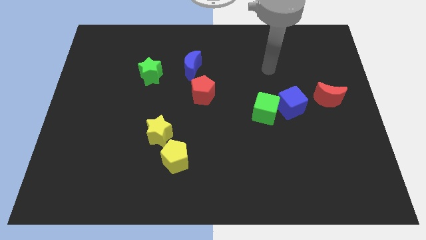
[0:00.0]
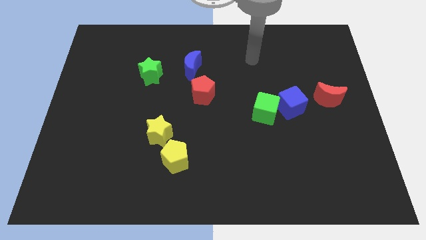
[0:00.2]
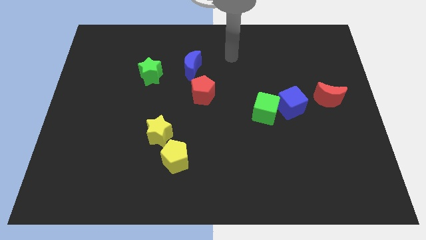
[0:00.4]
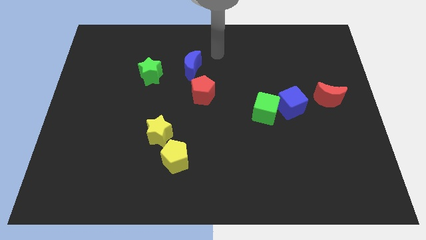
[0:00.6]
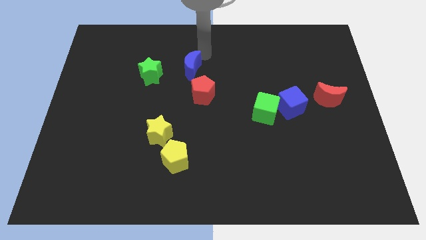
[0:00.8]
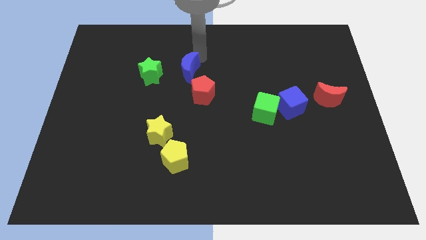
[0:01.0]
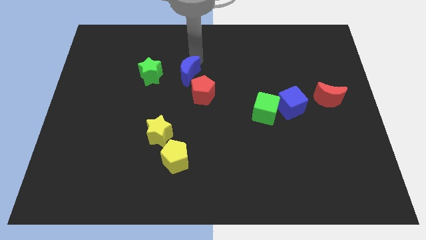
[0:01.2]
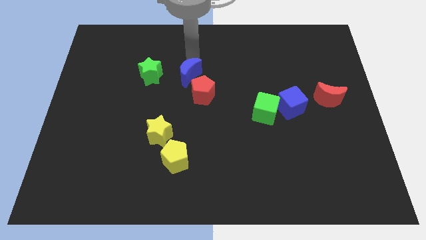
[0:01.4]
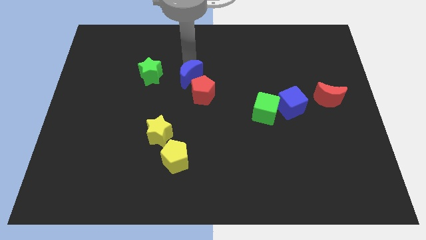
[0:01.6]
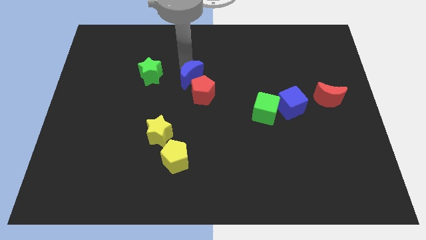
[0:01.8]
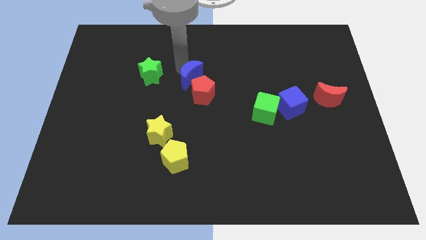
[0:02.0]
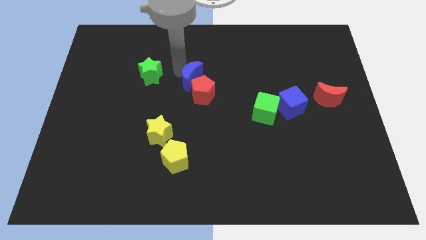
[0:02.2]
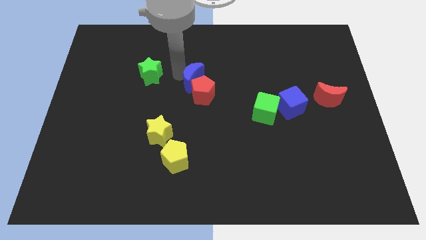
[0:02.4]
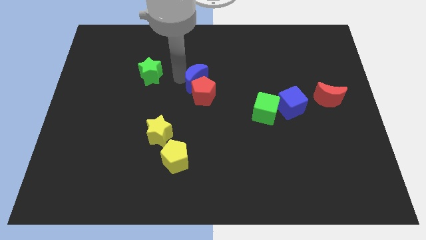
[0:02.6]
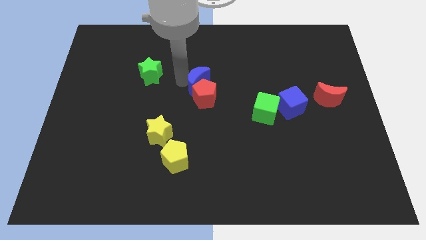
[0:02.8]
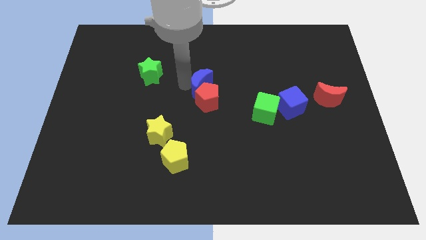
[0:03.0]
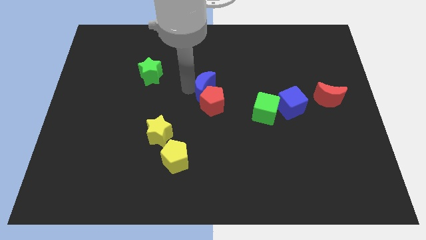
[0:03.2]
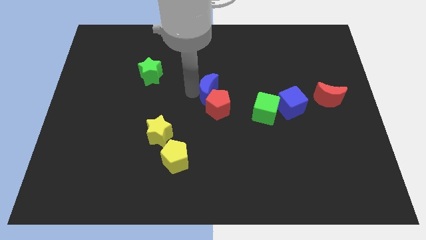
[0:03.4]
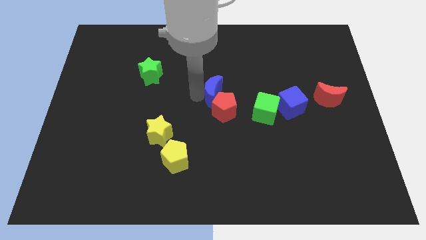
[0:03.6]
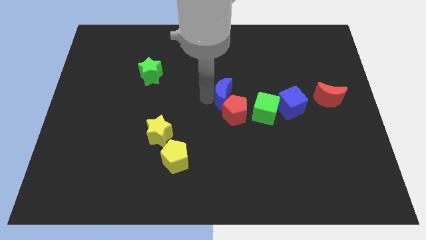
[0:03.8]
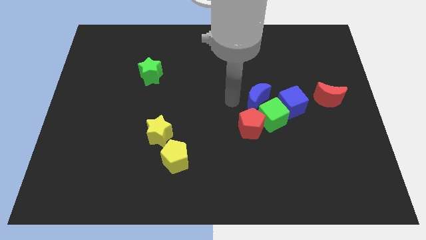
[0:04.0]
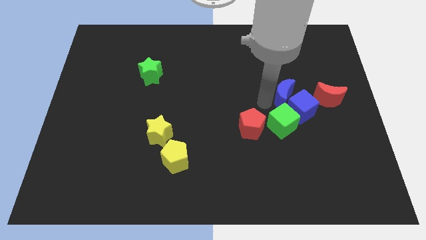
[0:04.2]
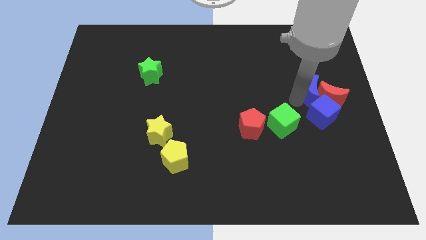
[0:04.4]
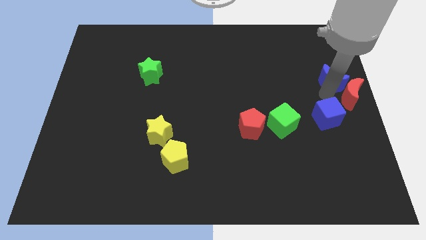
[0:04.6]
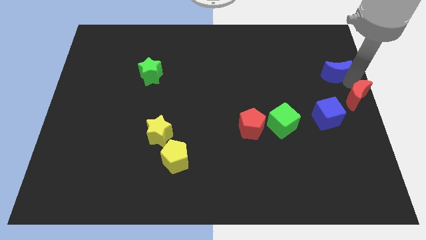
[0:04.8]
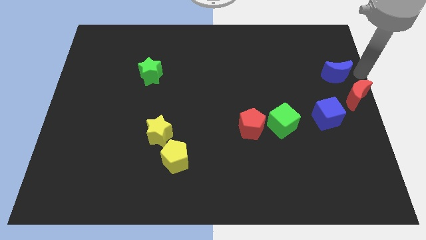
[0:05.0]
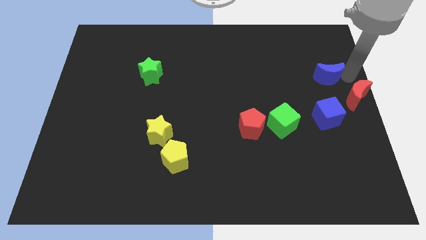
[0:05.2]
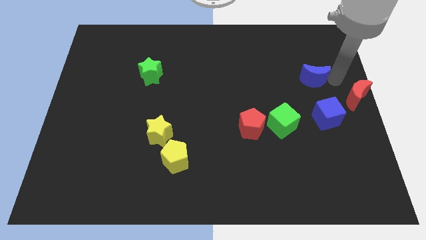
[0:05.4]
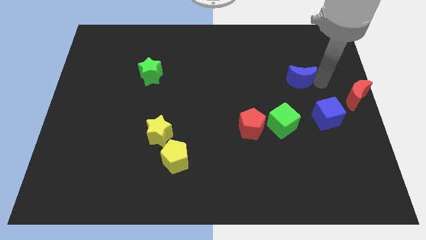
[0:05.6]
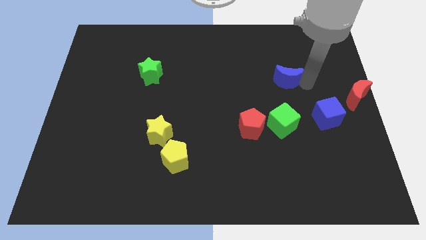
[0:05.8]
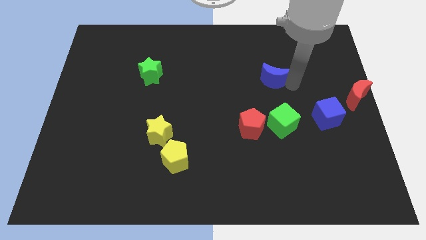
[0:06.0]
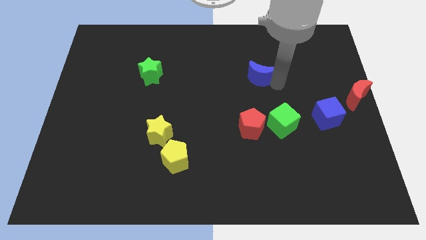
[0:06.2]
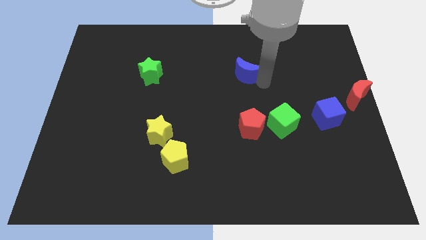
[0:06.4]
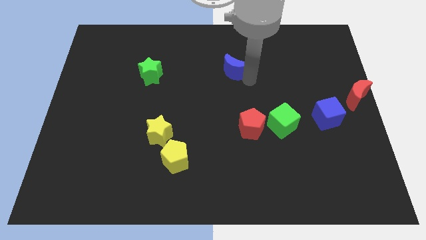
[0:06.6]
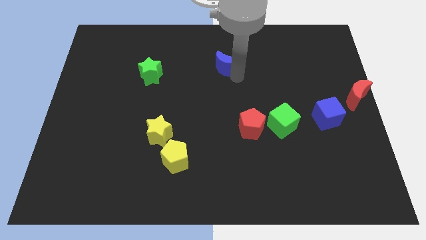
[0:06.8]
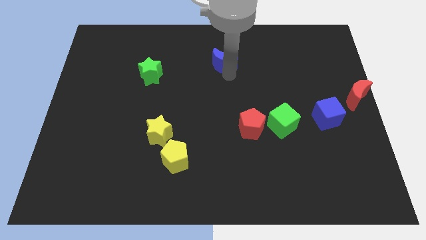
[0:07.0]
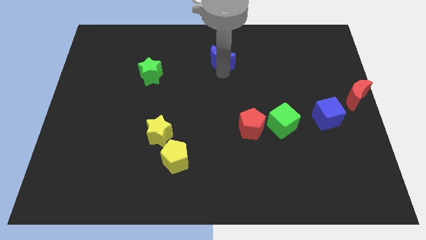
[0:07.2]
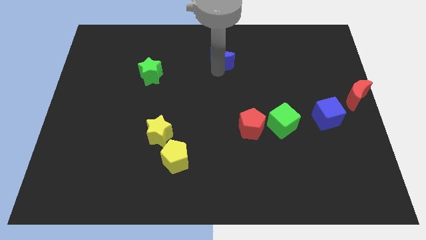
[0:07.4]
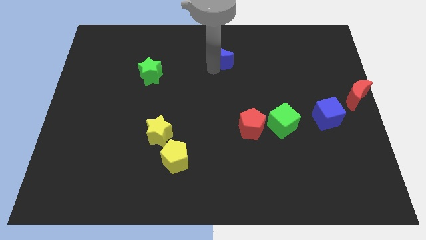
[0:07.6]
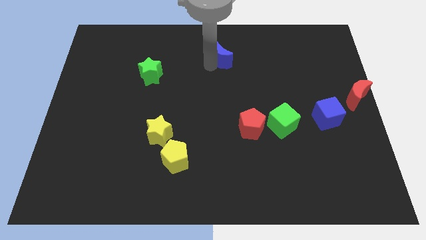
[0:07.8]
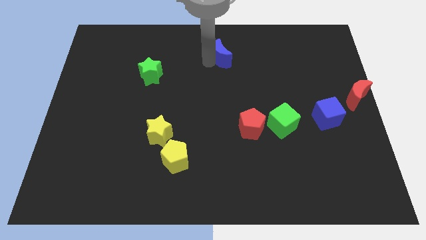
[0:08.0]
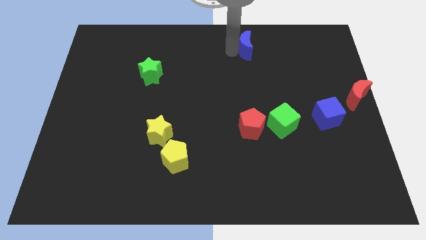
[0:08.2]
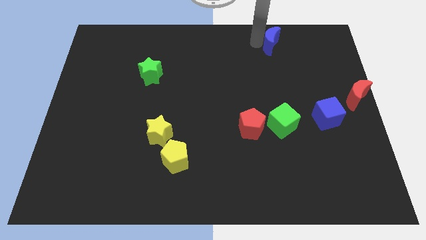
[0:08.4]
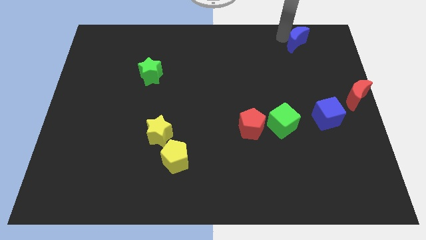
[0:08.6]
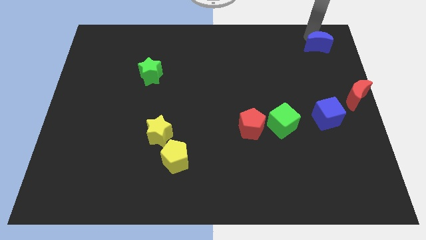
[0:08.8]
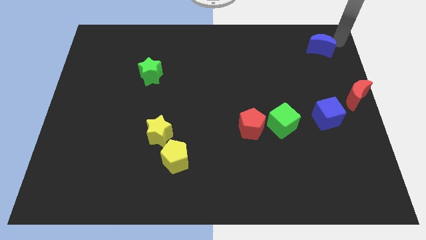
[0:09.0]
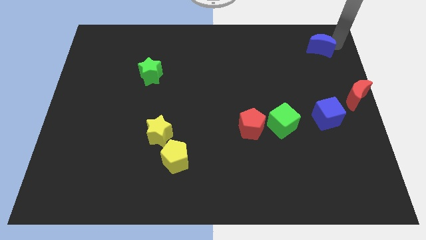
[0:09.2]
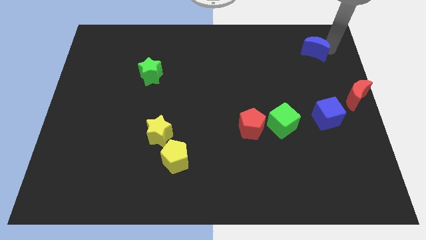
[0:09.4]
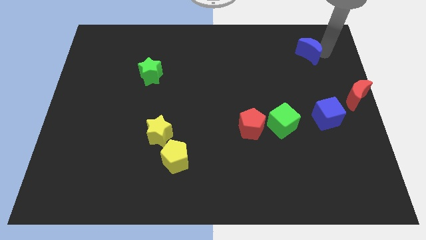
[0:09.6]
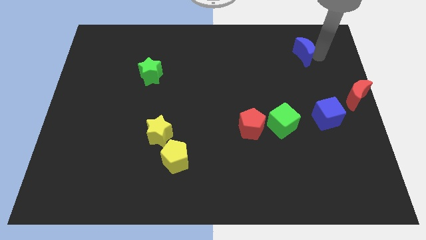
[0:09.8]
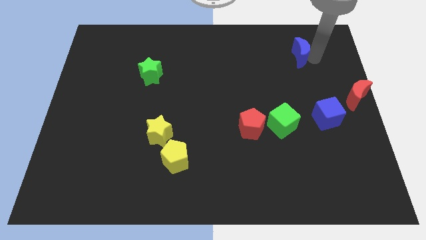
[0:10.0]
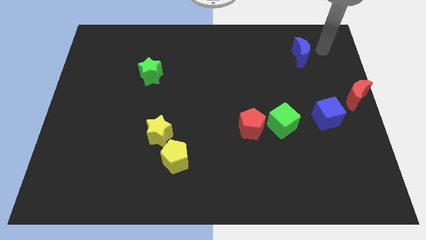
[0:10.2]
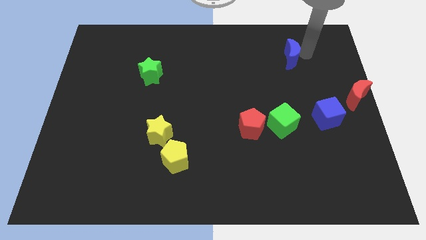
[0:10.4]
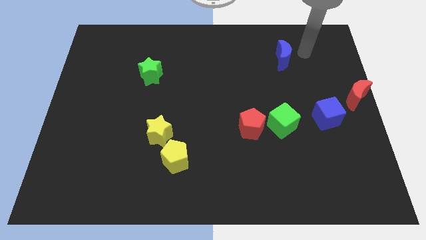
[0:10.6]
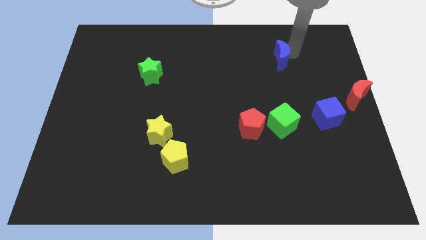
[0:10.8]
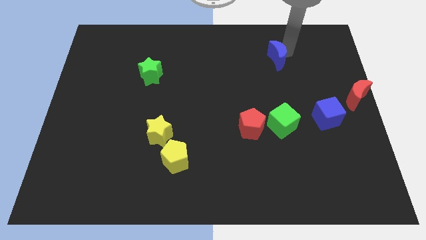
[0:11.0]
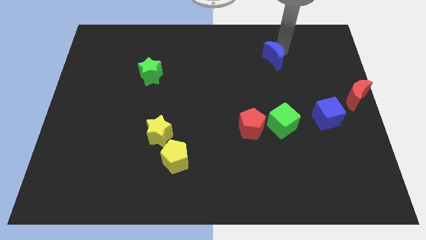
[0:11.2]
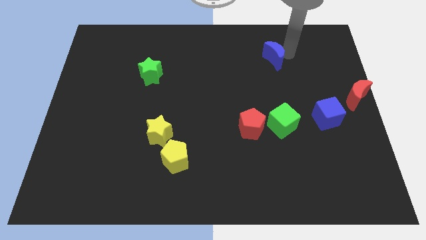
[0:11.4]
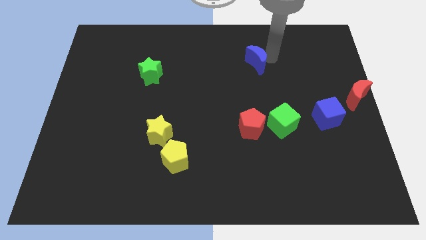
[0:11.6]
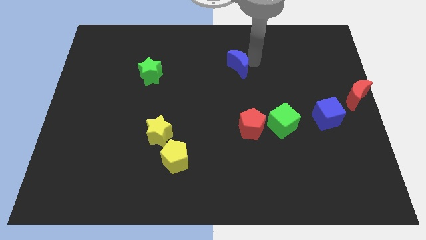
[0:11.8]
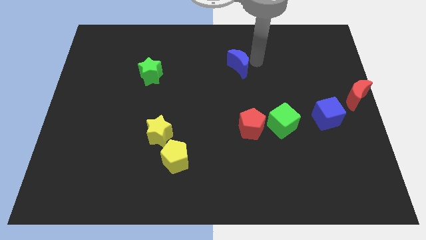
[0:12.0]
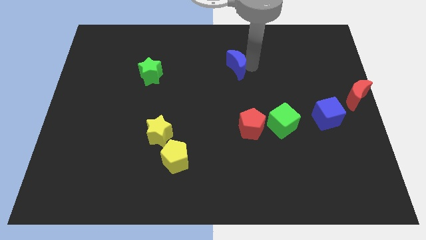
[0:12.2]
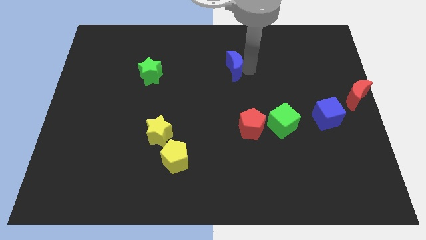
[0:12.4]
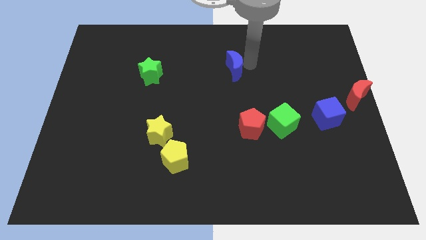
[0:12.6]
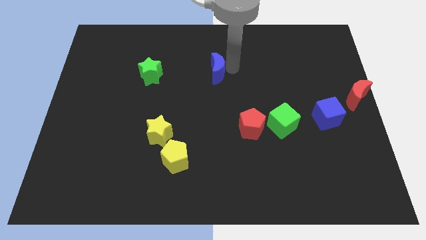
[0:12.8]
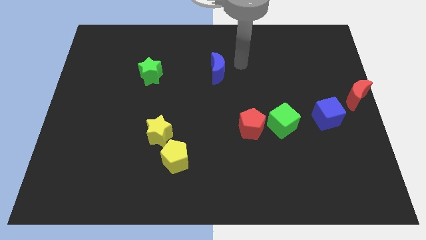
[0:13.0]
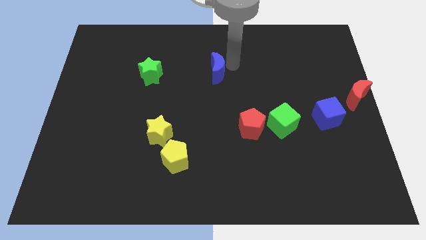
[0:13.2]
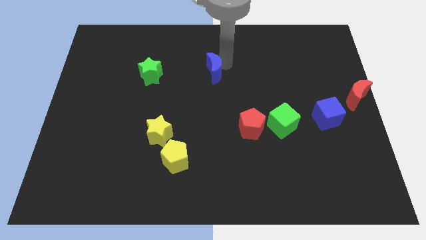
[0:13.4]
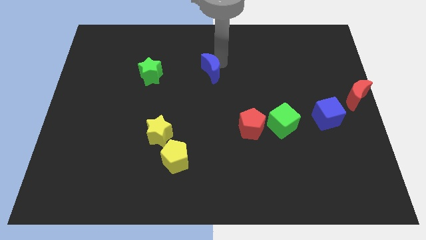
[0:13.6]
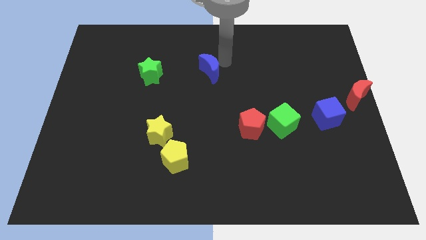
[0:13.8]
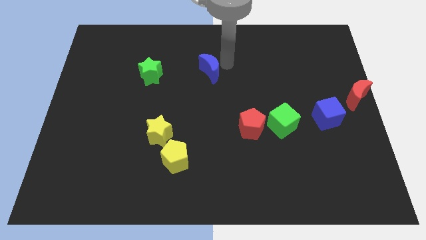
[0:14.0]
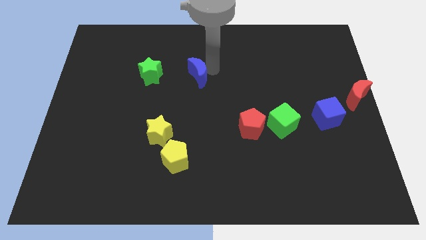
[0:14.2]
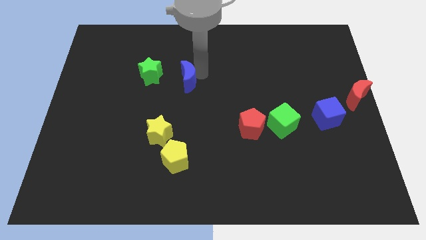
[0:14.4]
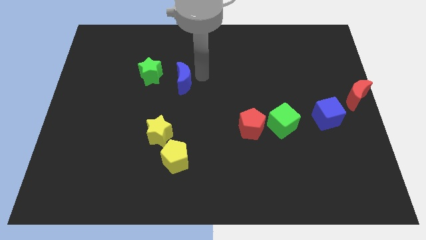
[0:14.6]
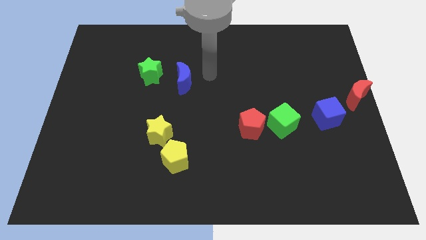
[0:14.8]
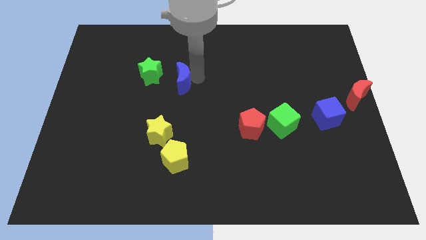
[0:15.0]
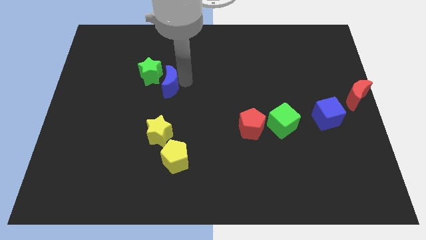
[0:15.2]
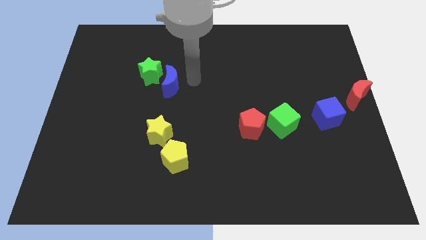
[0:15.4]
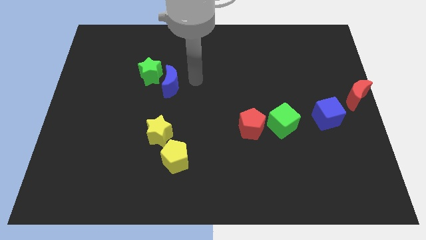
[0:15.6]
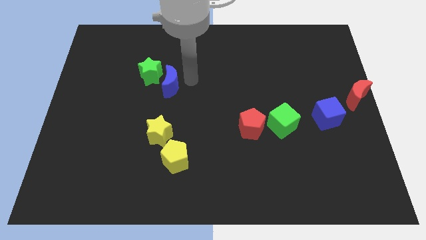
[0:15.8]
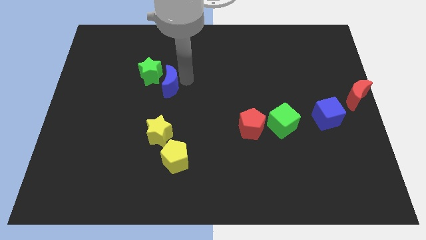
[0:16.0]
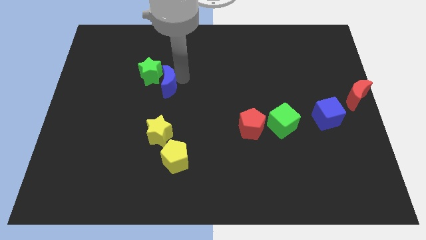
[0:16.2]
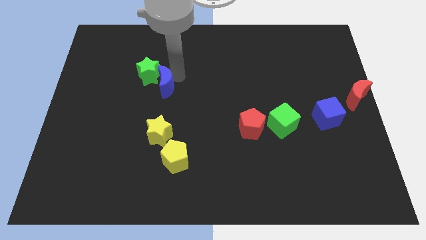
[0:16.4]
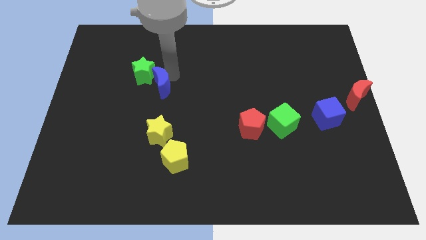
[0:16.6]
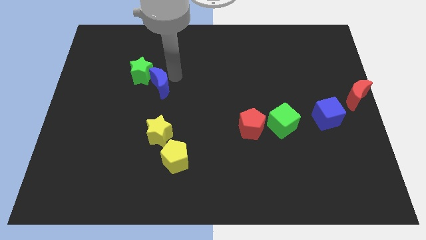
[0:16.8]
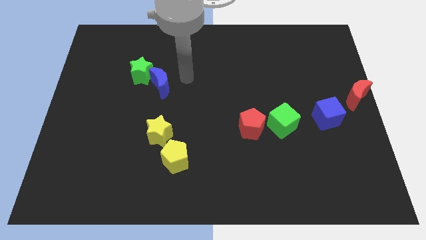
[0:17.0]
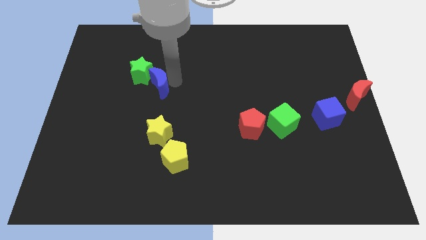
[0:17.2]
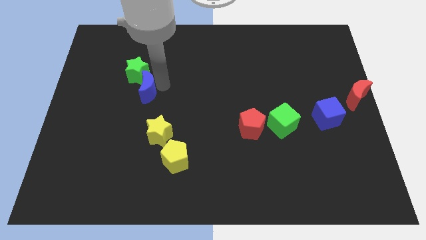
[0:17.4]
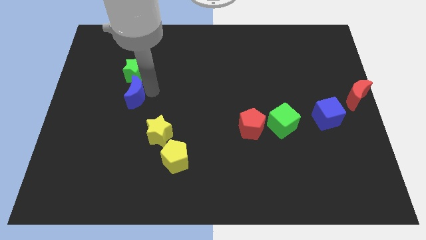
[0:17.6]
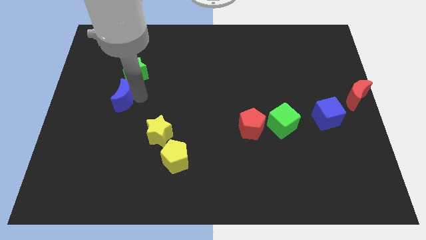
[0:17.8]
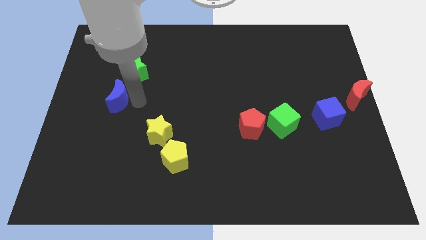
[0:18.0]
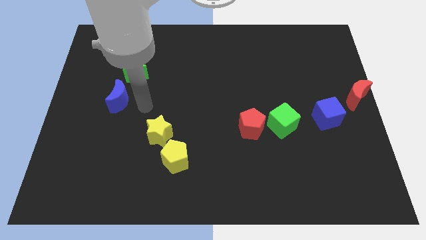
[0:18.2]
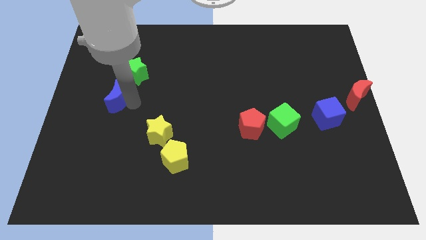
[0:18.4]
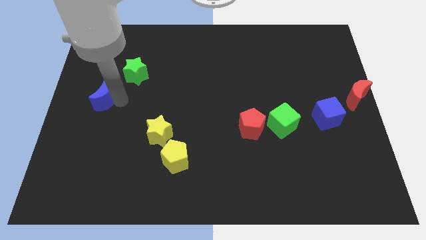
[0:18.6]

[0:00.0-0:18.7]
slide the blue moon to the left side
